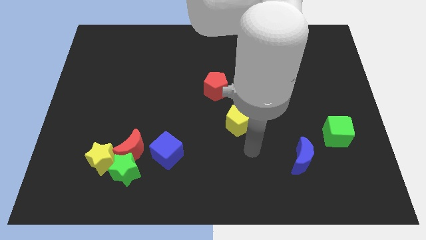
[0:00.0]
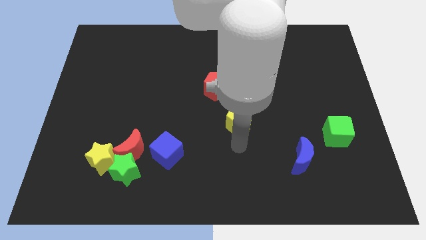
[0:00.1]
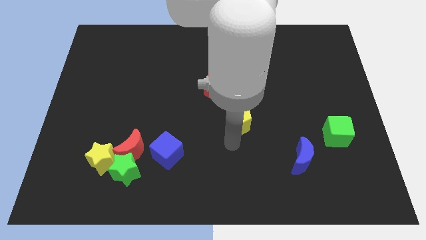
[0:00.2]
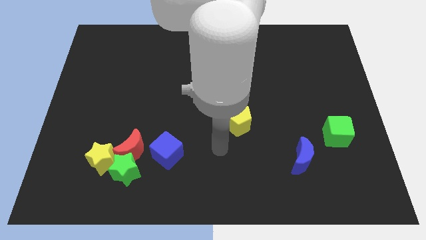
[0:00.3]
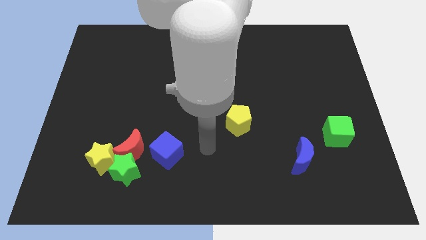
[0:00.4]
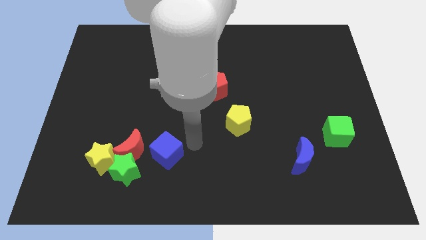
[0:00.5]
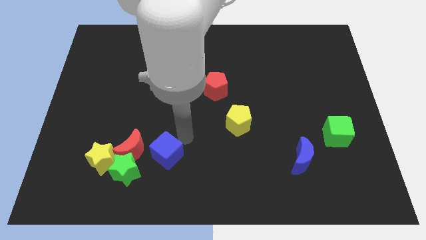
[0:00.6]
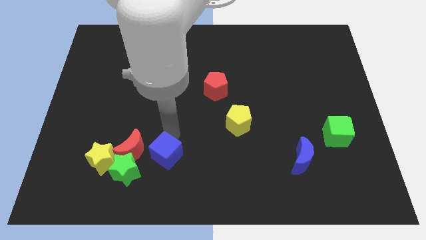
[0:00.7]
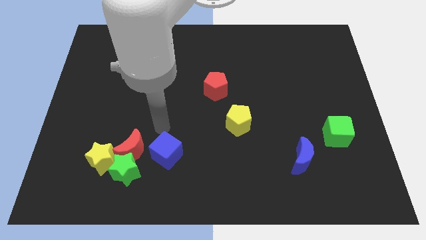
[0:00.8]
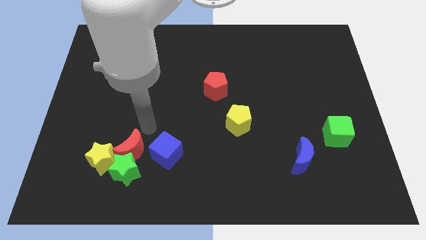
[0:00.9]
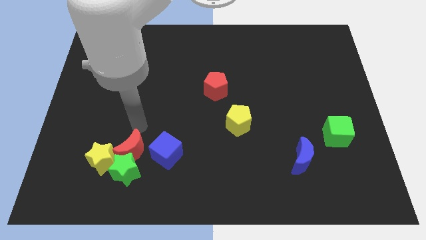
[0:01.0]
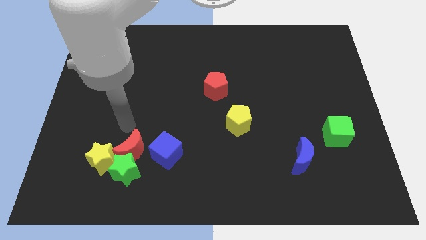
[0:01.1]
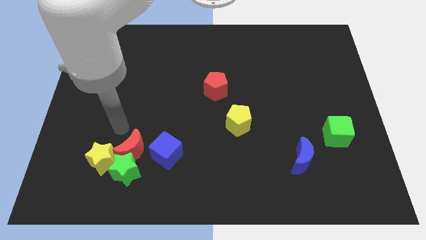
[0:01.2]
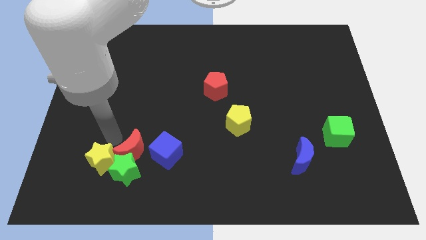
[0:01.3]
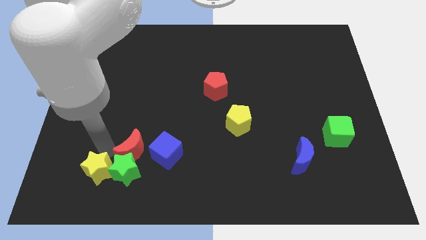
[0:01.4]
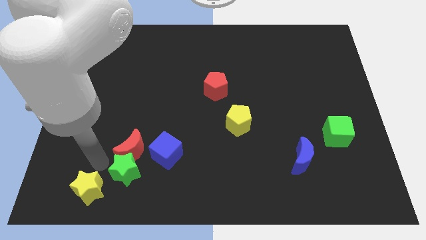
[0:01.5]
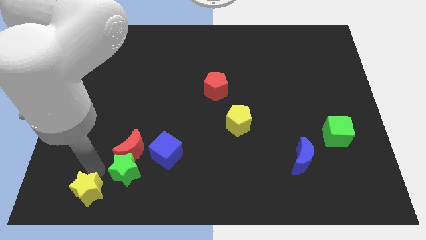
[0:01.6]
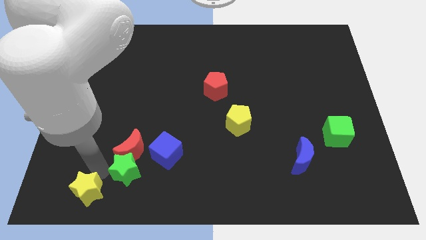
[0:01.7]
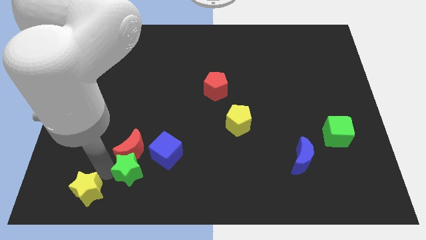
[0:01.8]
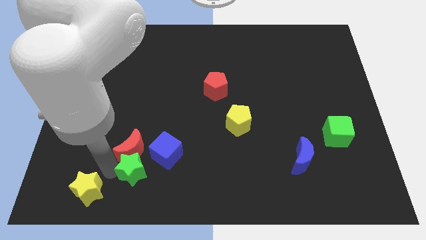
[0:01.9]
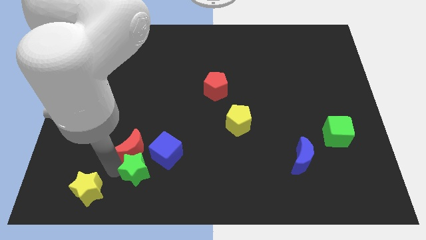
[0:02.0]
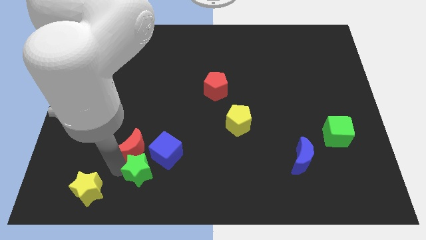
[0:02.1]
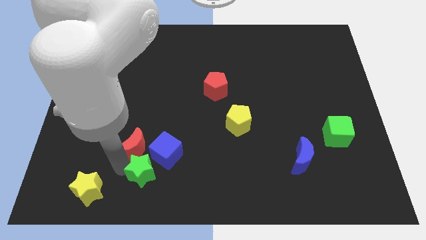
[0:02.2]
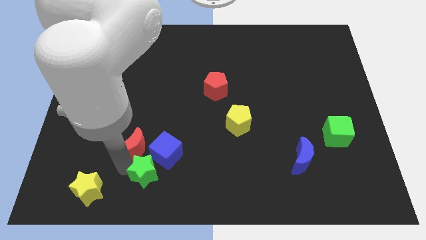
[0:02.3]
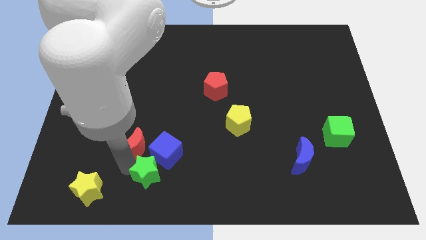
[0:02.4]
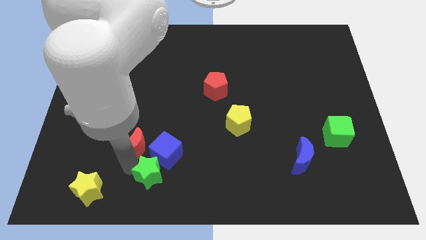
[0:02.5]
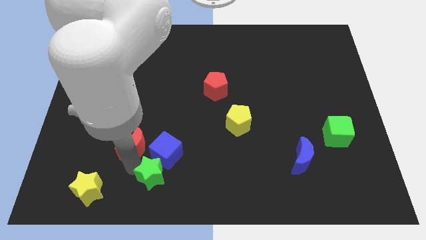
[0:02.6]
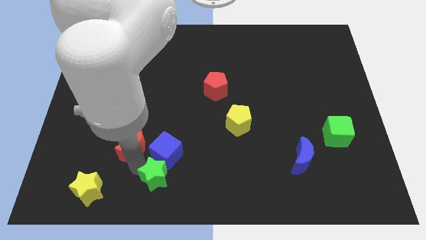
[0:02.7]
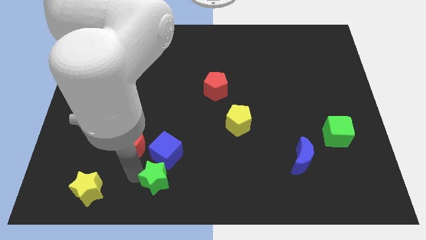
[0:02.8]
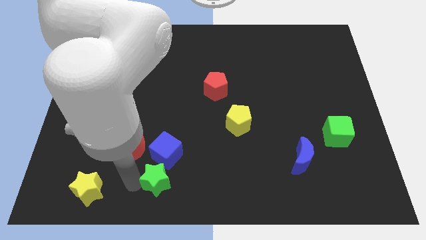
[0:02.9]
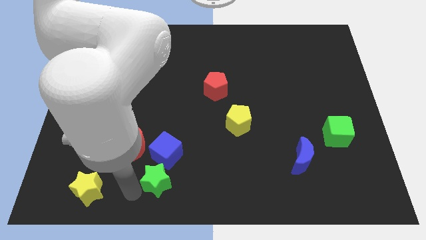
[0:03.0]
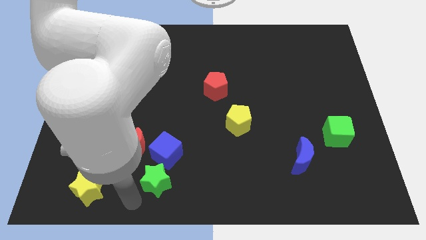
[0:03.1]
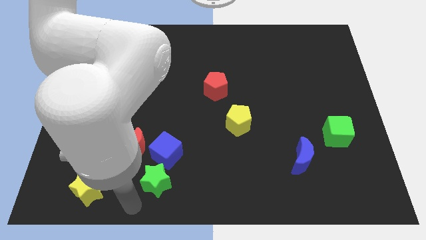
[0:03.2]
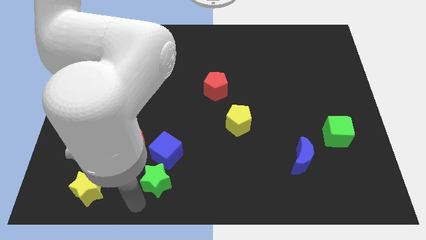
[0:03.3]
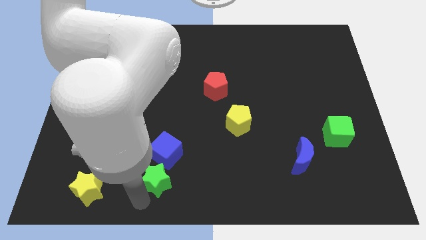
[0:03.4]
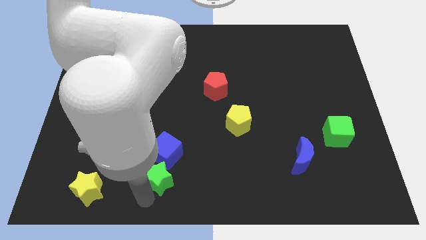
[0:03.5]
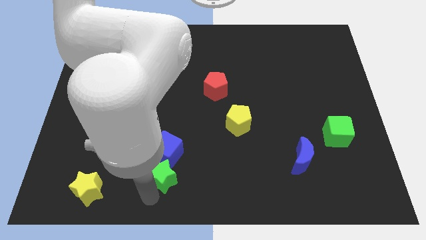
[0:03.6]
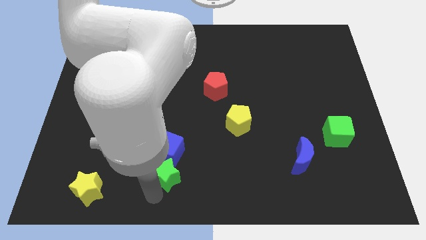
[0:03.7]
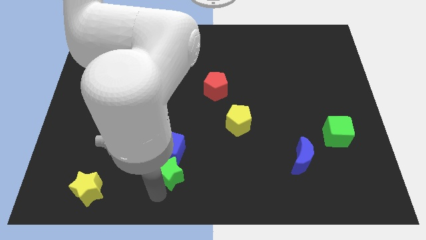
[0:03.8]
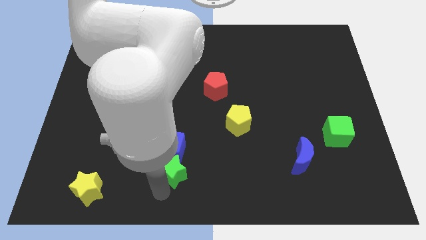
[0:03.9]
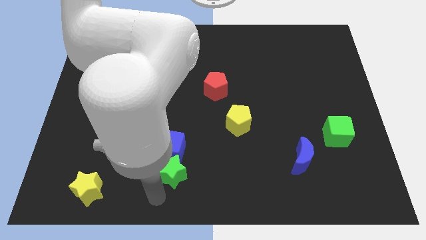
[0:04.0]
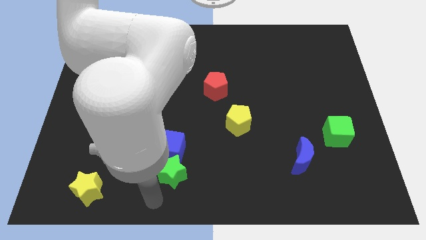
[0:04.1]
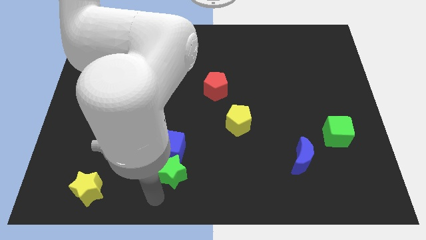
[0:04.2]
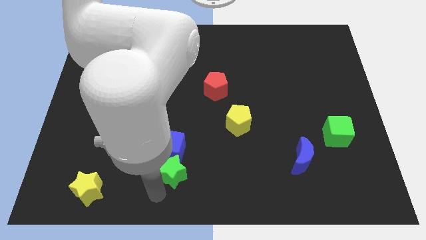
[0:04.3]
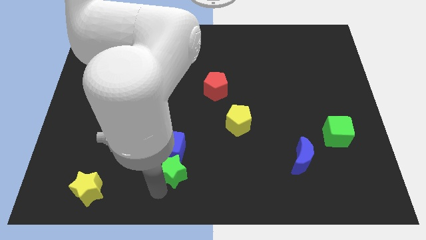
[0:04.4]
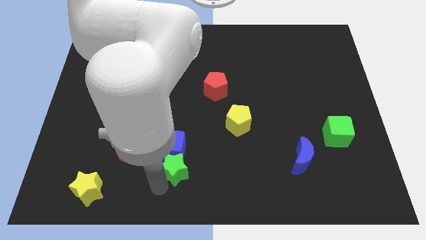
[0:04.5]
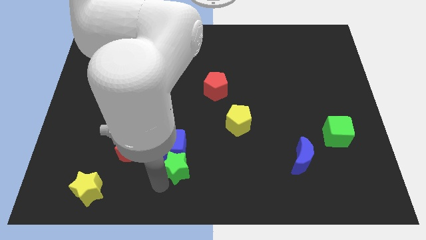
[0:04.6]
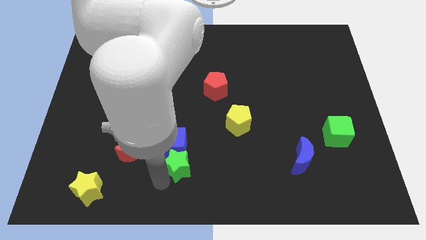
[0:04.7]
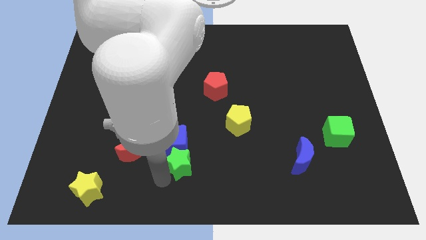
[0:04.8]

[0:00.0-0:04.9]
move the green star a bit up and then to the right

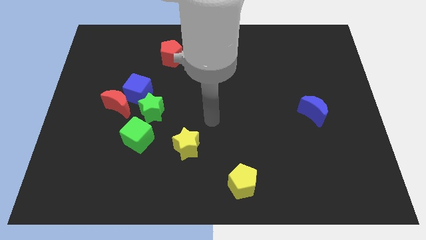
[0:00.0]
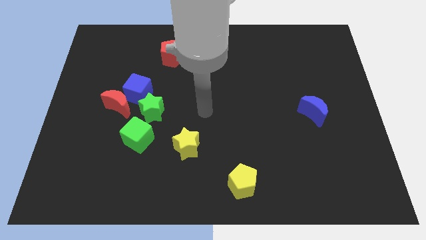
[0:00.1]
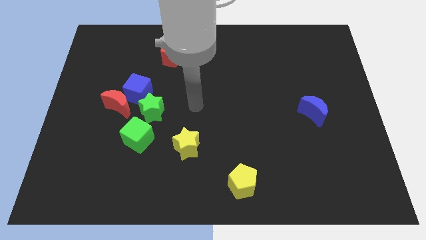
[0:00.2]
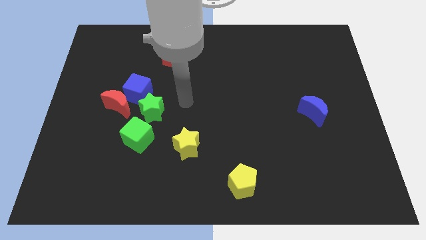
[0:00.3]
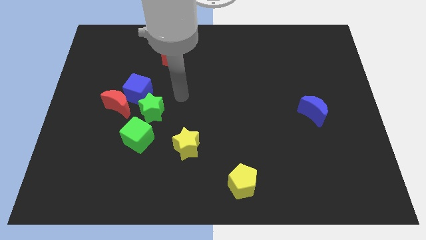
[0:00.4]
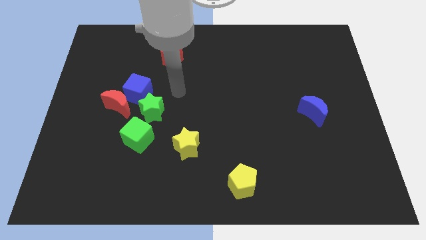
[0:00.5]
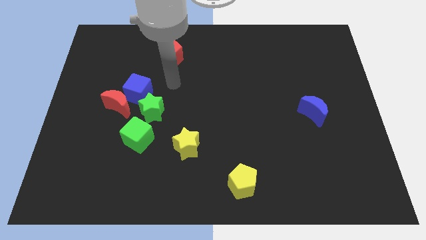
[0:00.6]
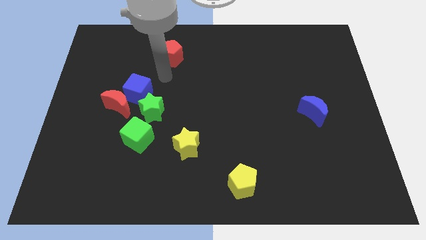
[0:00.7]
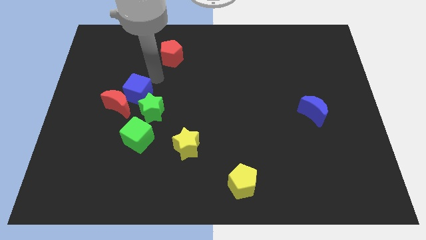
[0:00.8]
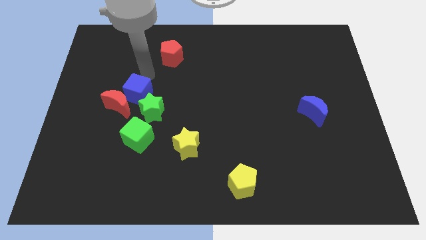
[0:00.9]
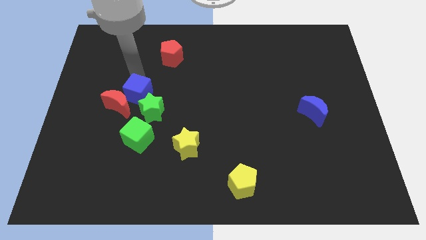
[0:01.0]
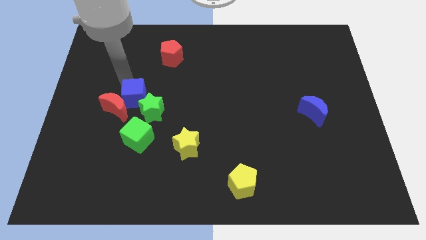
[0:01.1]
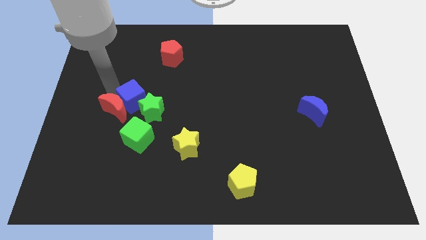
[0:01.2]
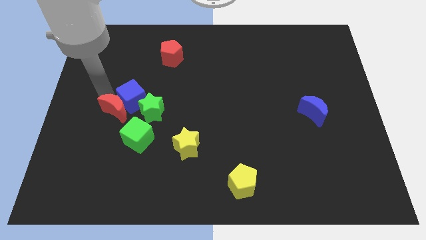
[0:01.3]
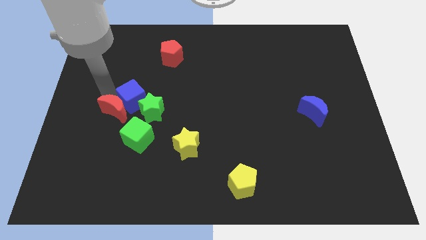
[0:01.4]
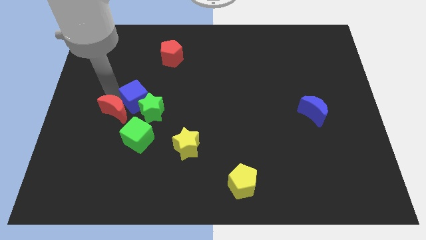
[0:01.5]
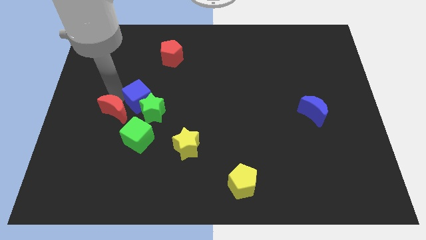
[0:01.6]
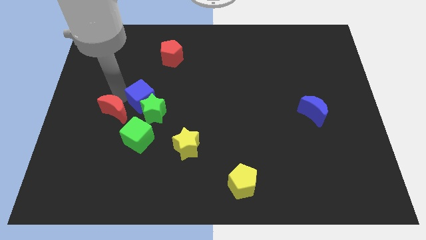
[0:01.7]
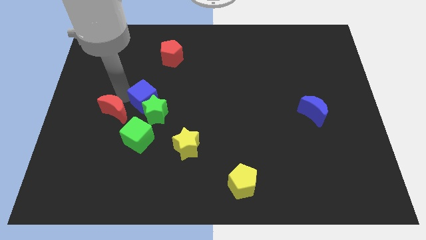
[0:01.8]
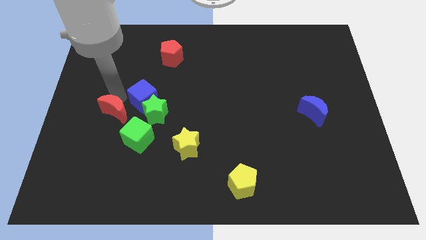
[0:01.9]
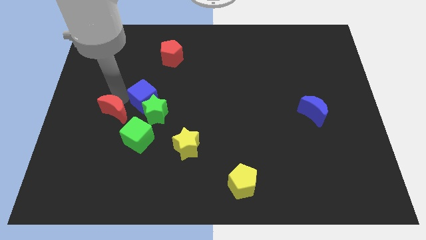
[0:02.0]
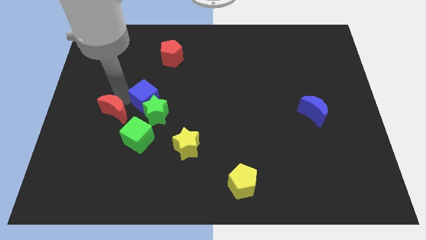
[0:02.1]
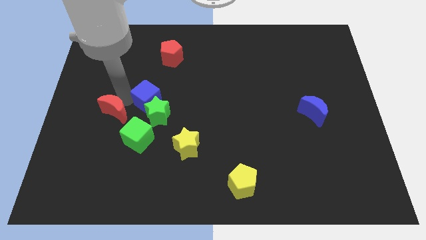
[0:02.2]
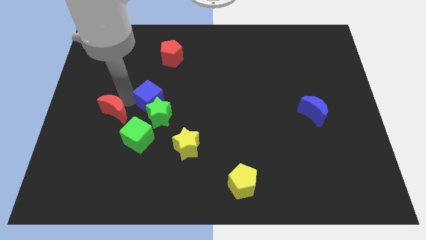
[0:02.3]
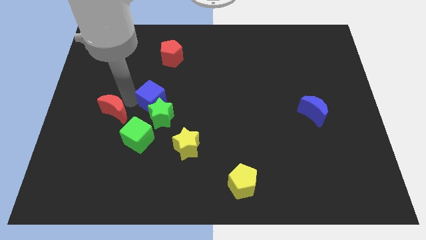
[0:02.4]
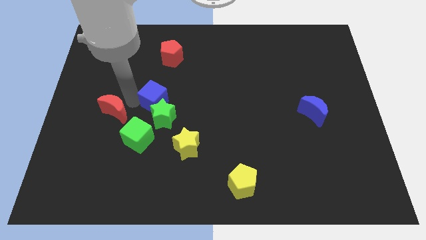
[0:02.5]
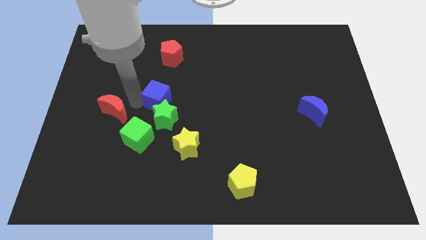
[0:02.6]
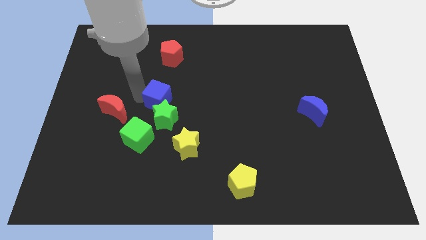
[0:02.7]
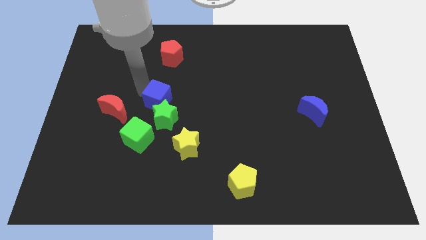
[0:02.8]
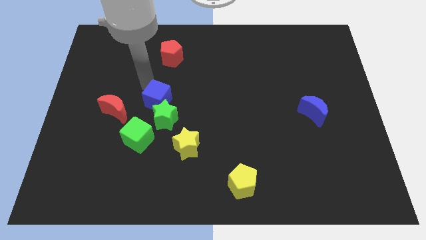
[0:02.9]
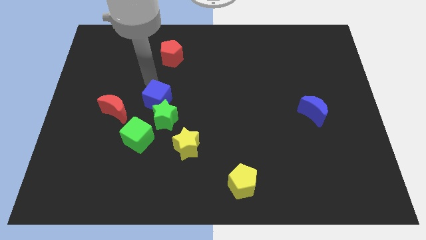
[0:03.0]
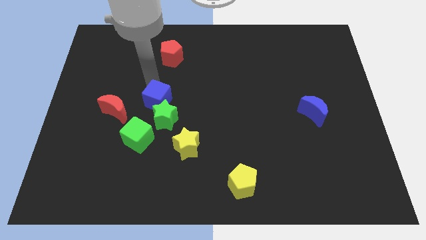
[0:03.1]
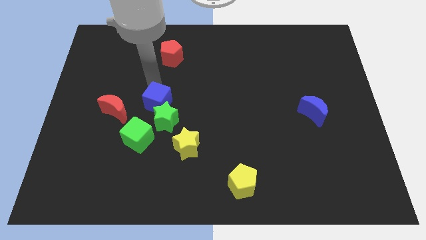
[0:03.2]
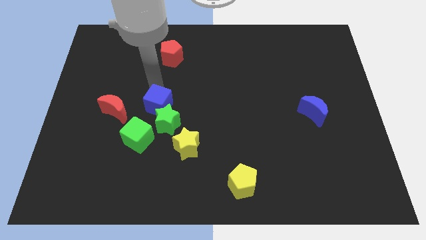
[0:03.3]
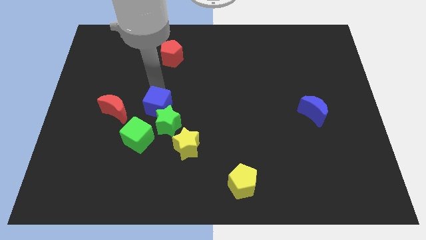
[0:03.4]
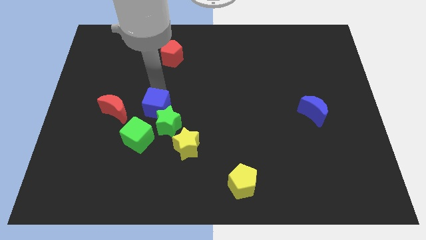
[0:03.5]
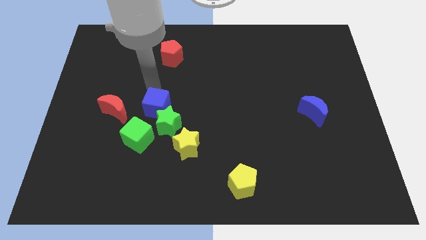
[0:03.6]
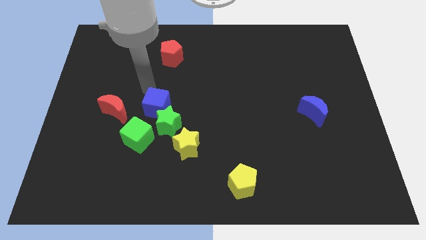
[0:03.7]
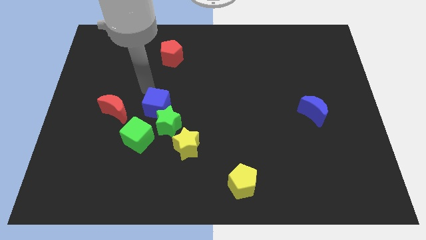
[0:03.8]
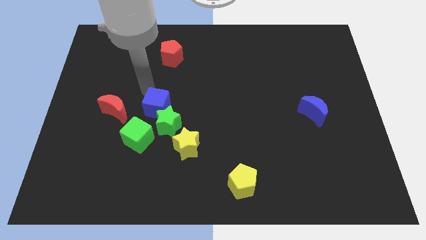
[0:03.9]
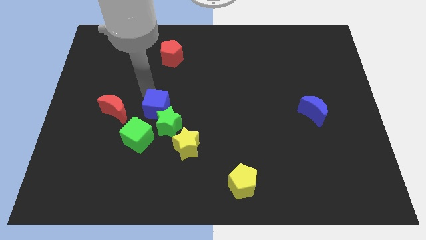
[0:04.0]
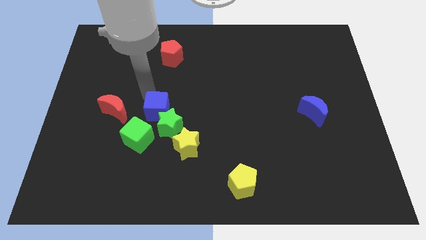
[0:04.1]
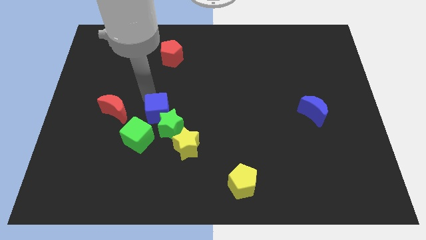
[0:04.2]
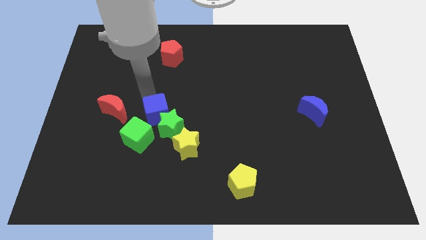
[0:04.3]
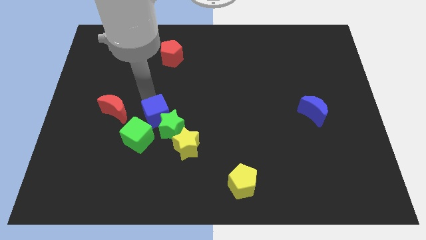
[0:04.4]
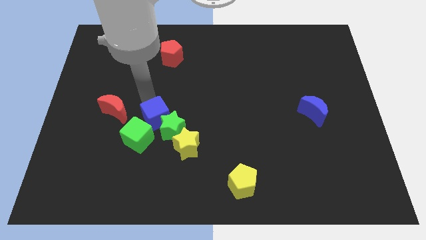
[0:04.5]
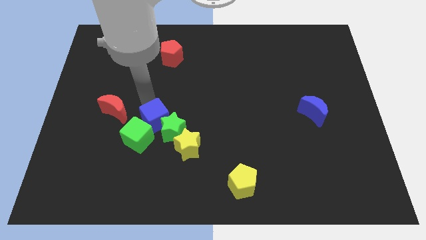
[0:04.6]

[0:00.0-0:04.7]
push the blue cube down slightly
